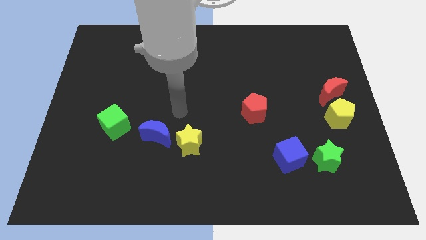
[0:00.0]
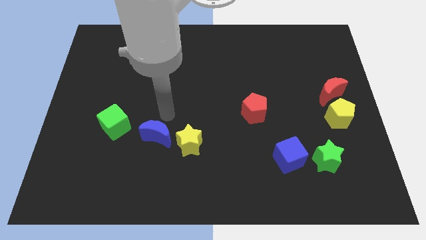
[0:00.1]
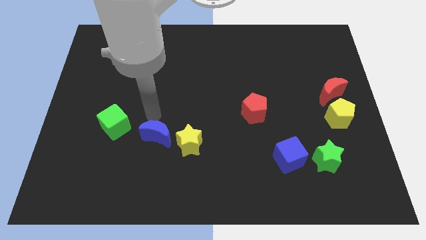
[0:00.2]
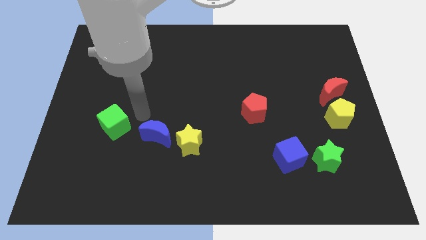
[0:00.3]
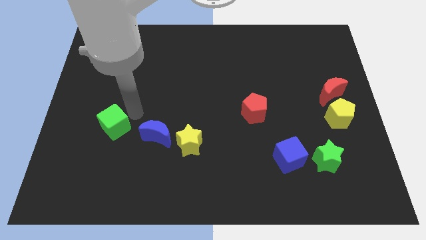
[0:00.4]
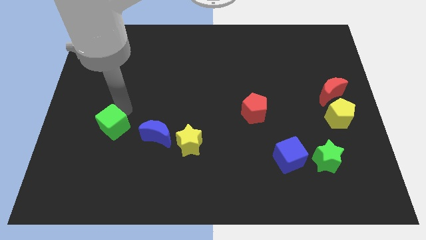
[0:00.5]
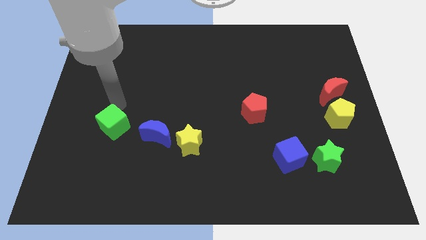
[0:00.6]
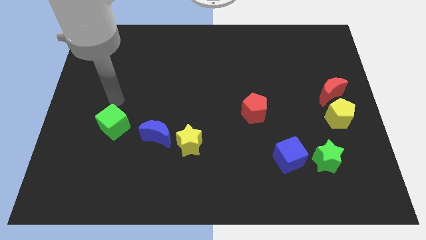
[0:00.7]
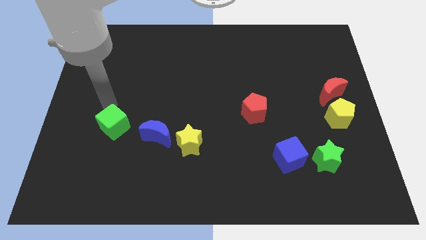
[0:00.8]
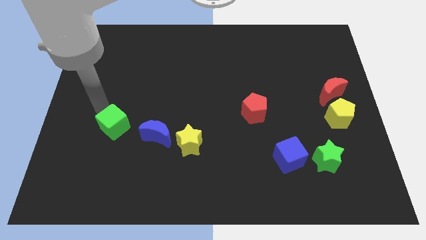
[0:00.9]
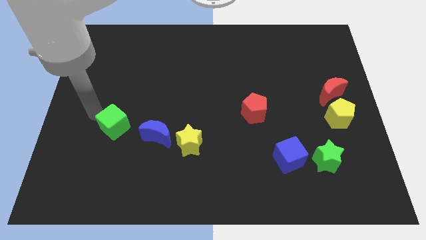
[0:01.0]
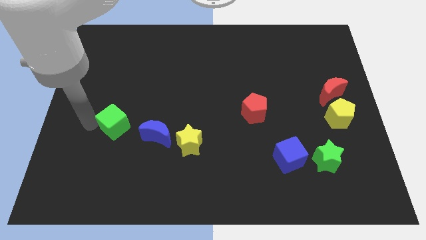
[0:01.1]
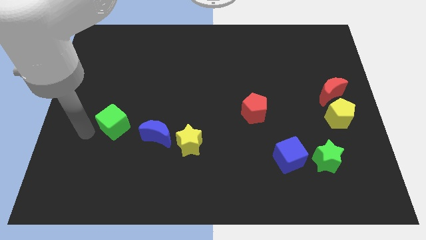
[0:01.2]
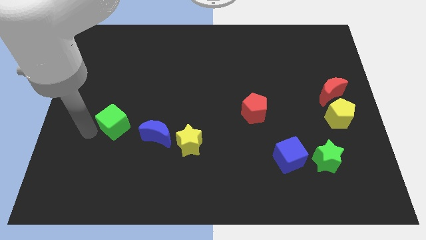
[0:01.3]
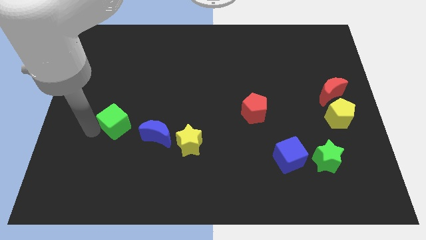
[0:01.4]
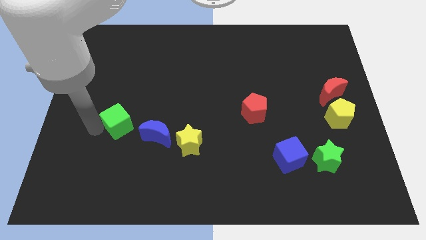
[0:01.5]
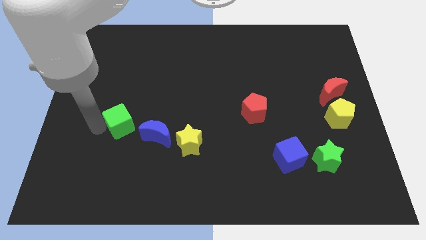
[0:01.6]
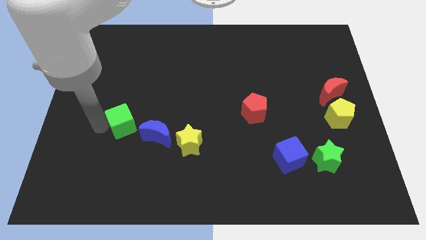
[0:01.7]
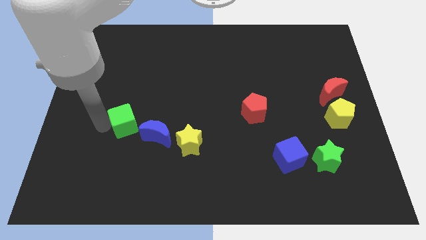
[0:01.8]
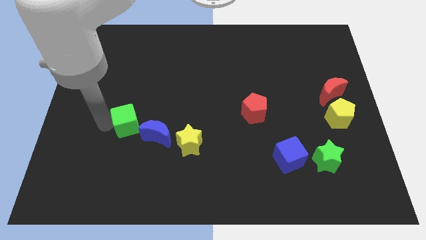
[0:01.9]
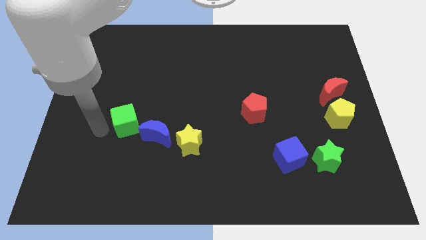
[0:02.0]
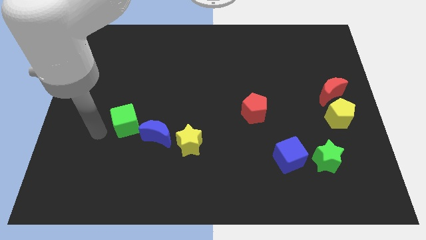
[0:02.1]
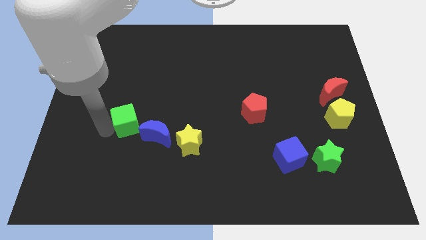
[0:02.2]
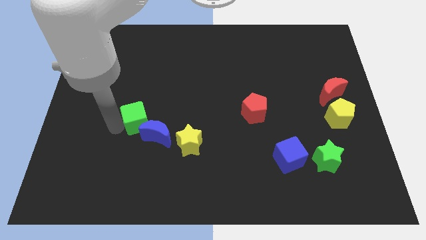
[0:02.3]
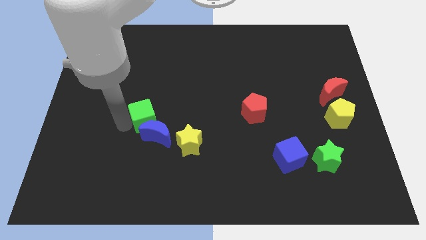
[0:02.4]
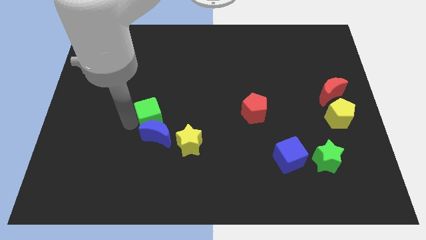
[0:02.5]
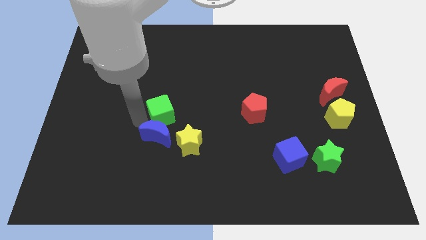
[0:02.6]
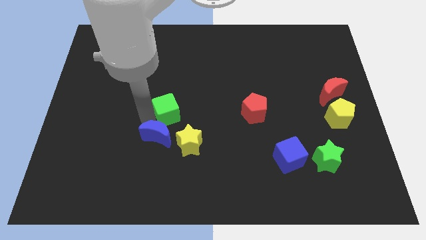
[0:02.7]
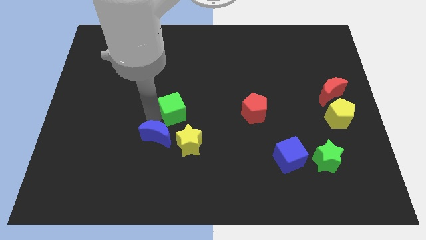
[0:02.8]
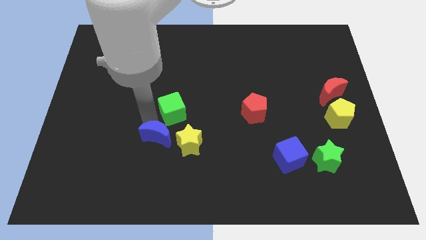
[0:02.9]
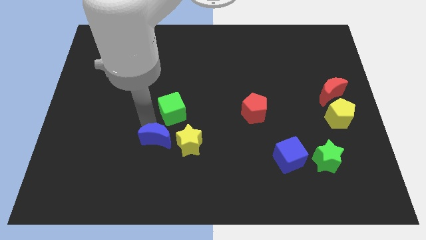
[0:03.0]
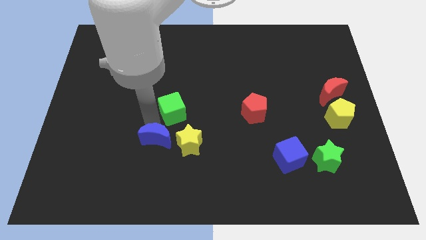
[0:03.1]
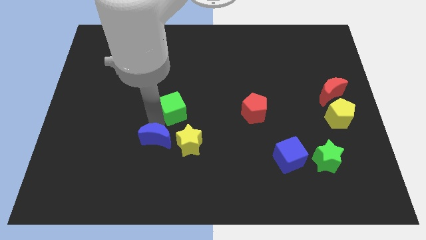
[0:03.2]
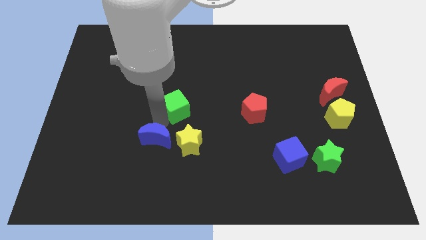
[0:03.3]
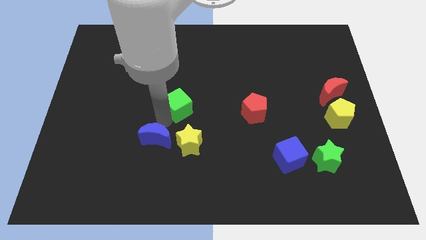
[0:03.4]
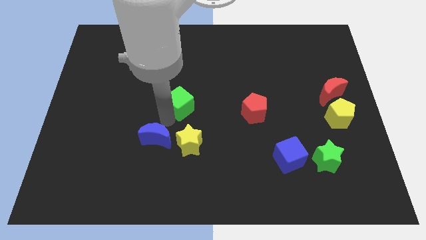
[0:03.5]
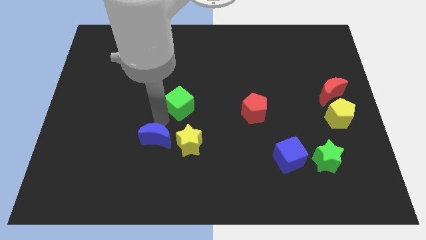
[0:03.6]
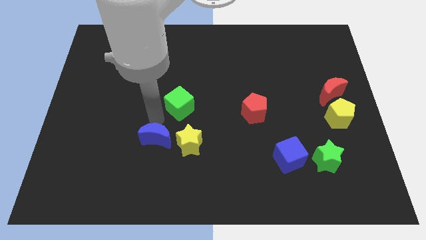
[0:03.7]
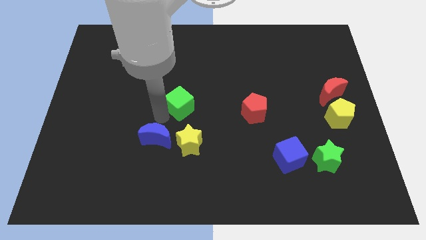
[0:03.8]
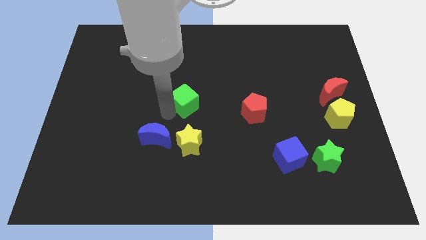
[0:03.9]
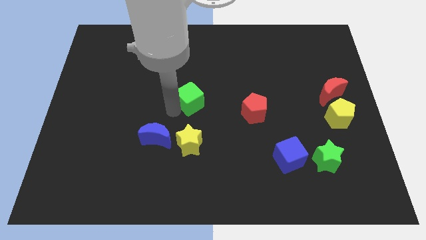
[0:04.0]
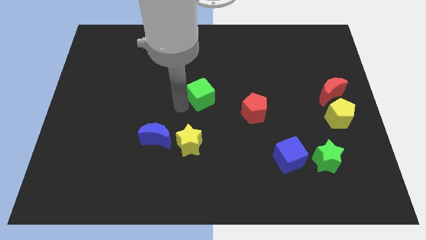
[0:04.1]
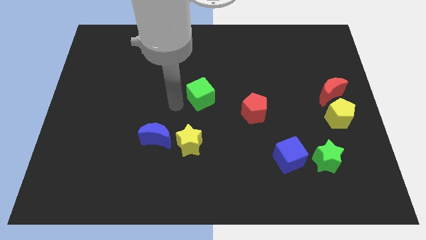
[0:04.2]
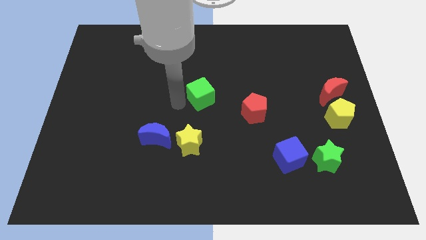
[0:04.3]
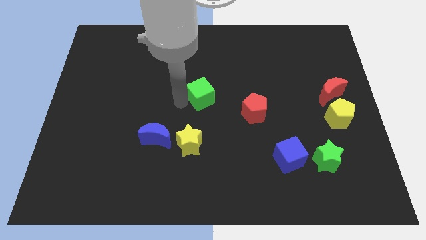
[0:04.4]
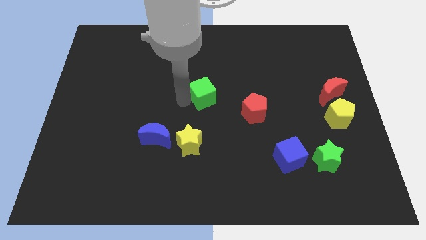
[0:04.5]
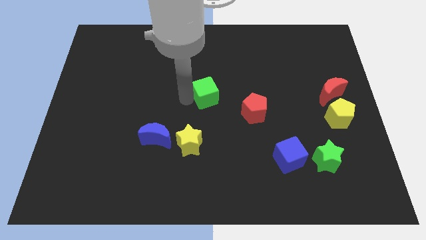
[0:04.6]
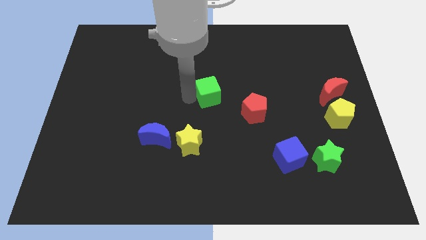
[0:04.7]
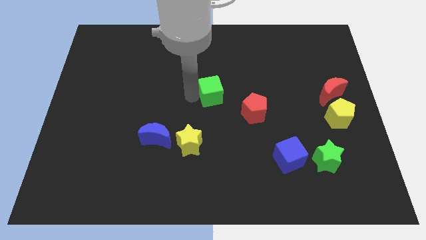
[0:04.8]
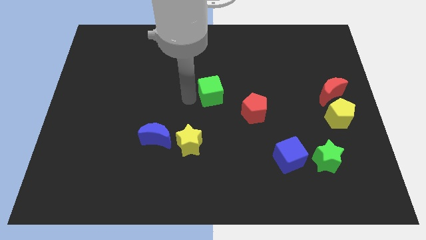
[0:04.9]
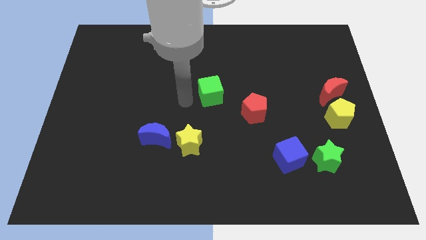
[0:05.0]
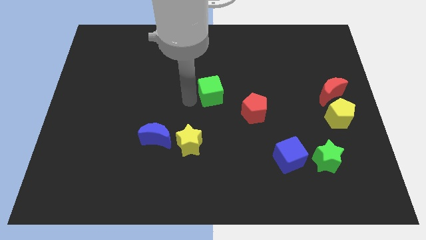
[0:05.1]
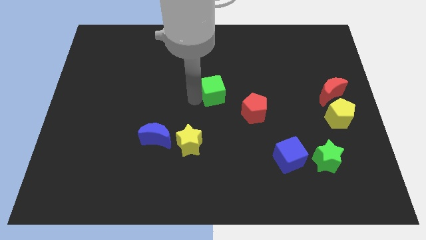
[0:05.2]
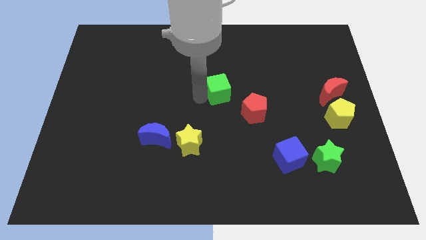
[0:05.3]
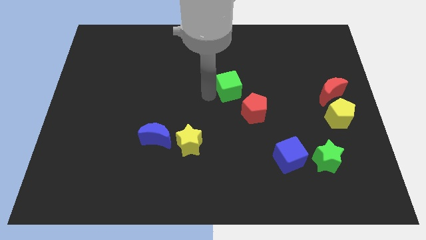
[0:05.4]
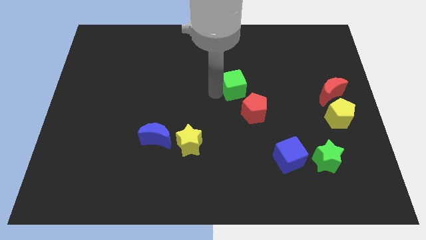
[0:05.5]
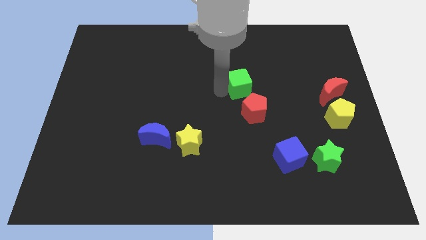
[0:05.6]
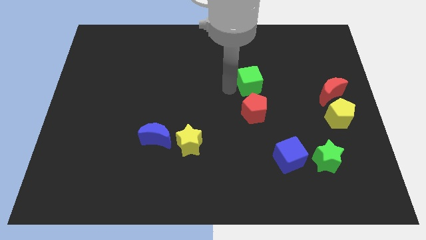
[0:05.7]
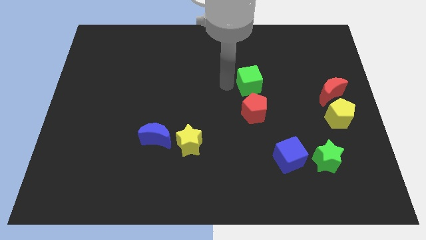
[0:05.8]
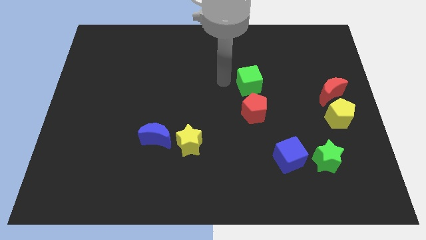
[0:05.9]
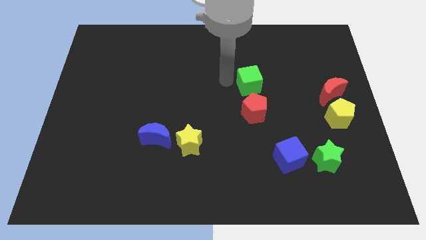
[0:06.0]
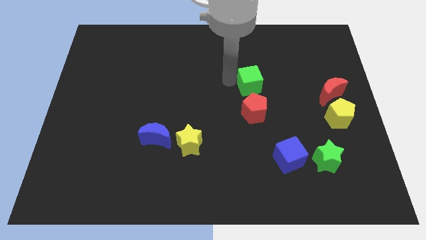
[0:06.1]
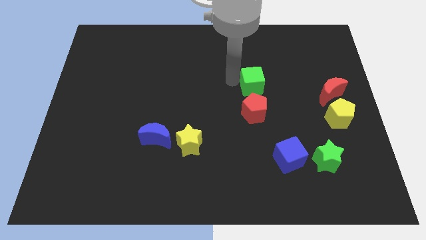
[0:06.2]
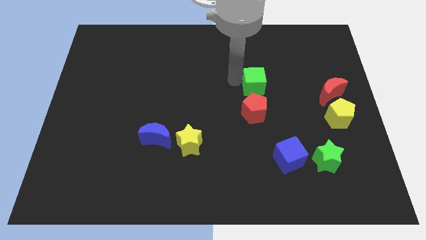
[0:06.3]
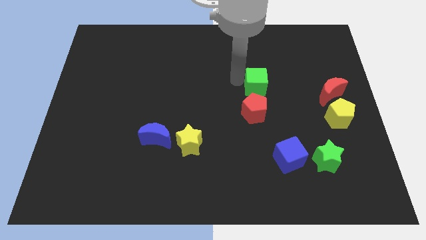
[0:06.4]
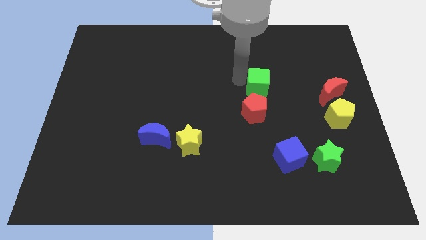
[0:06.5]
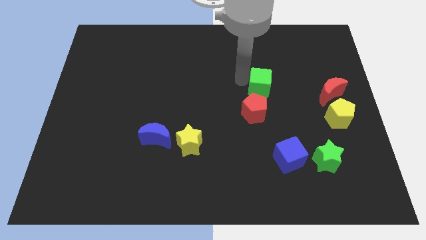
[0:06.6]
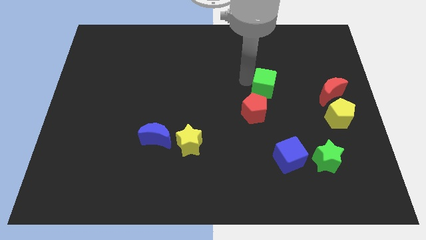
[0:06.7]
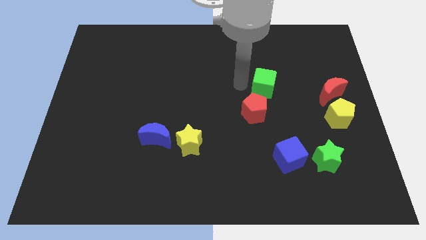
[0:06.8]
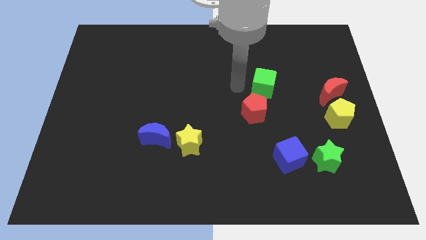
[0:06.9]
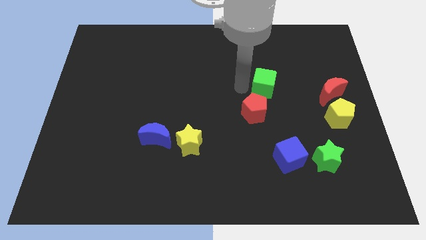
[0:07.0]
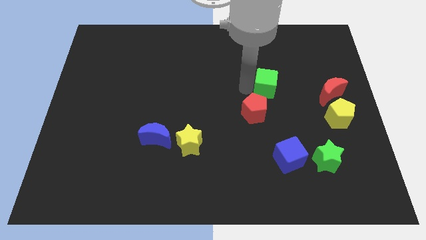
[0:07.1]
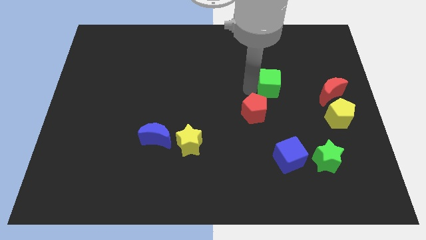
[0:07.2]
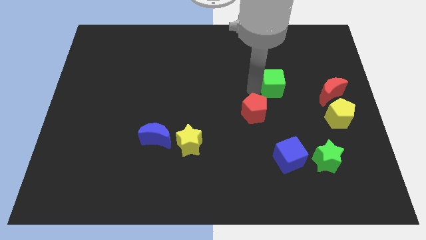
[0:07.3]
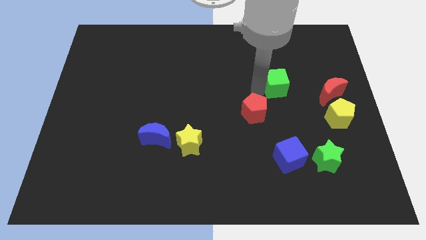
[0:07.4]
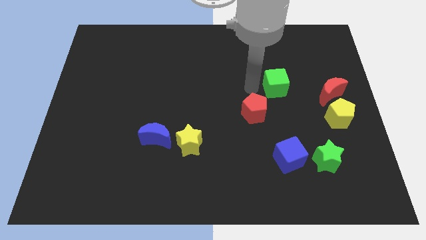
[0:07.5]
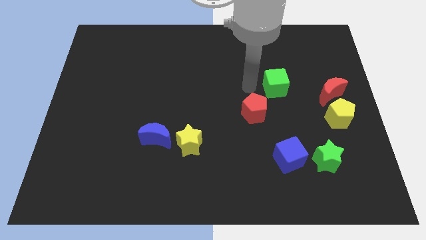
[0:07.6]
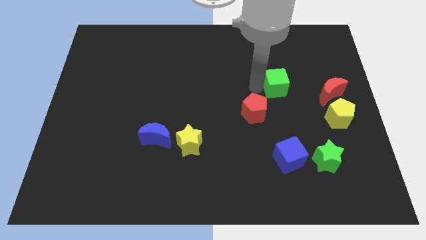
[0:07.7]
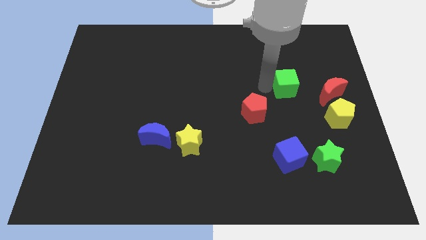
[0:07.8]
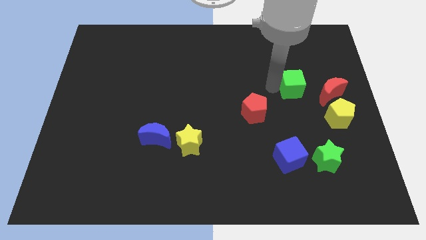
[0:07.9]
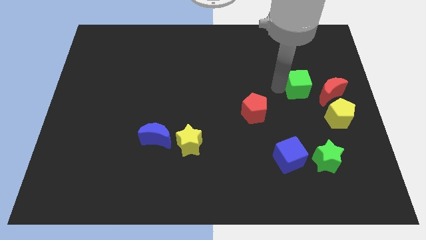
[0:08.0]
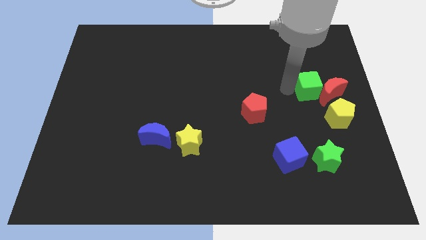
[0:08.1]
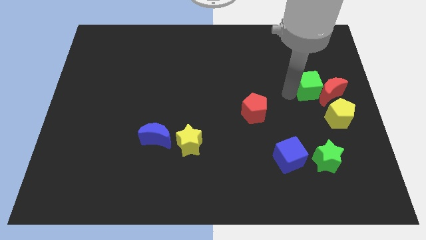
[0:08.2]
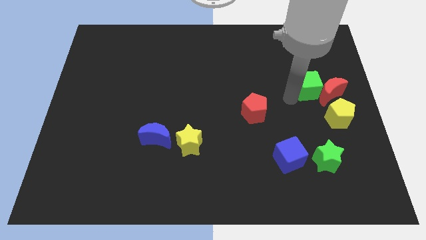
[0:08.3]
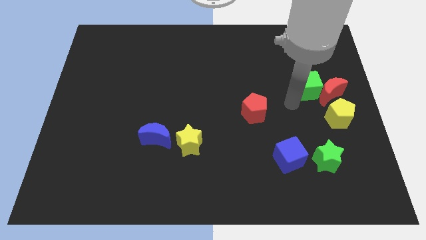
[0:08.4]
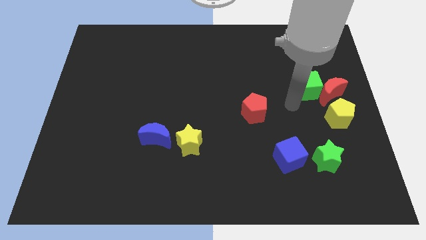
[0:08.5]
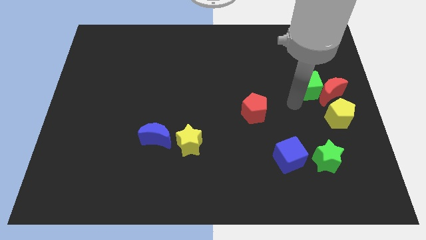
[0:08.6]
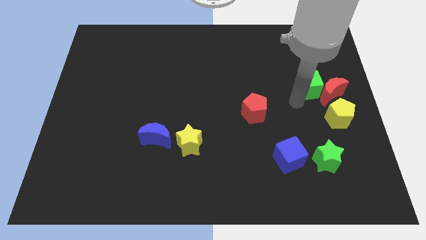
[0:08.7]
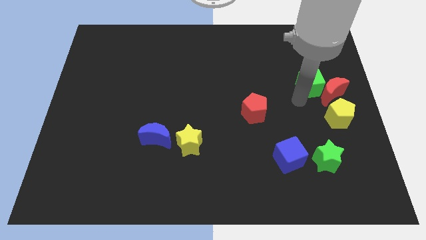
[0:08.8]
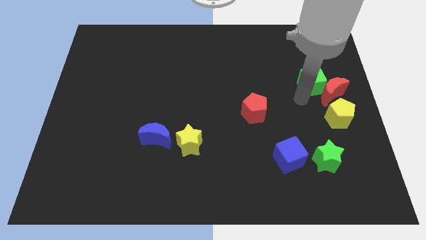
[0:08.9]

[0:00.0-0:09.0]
put the green cube to the top of the yellow pentagon
